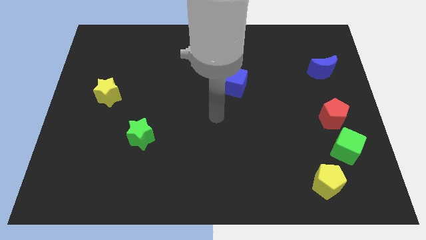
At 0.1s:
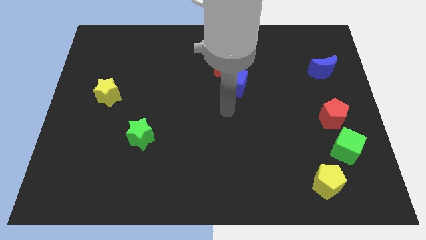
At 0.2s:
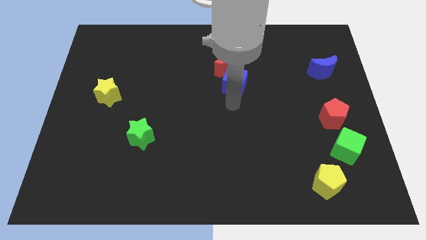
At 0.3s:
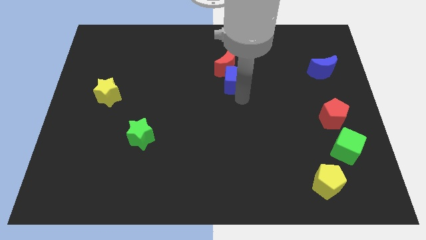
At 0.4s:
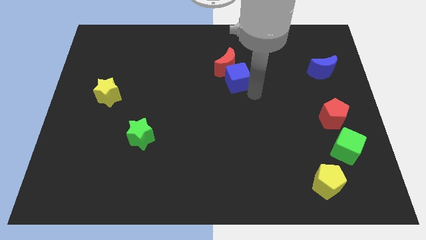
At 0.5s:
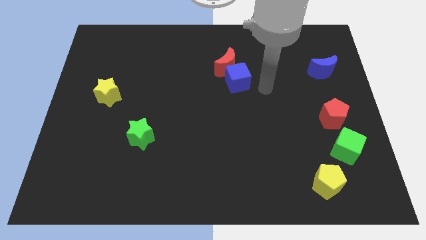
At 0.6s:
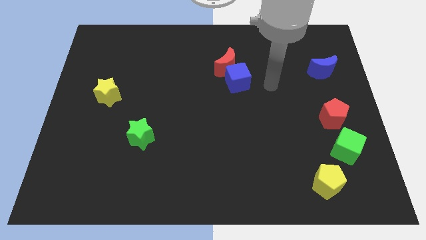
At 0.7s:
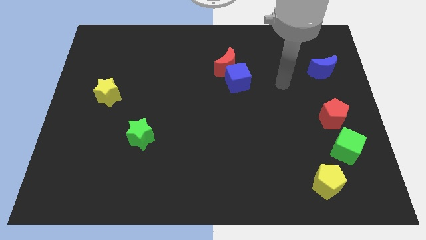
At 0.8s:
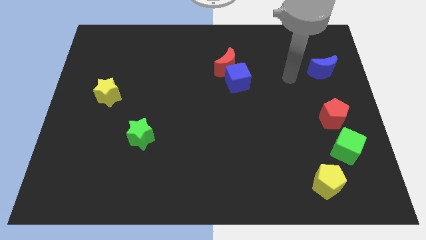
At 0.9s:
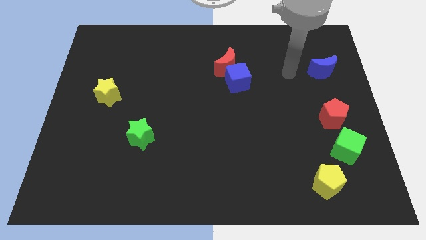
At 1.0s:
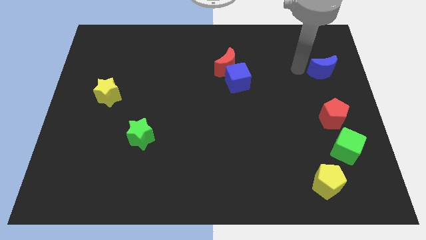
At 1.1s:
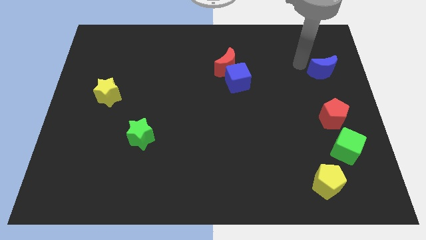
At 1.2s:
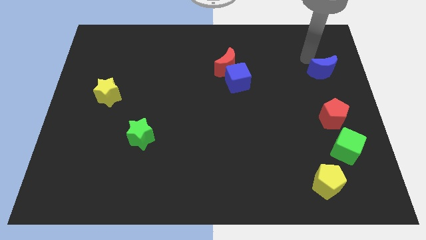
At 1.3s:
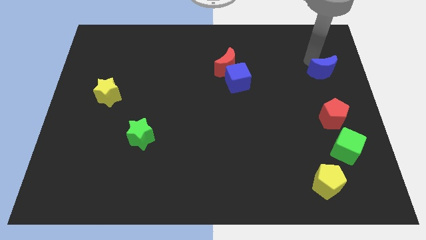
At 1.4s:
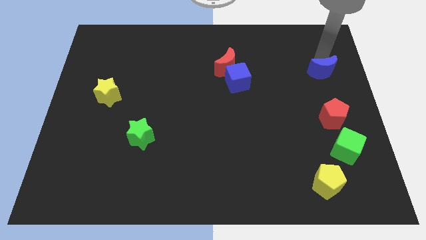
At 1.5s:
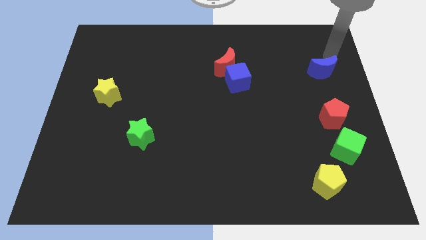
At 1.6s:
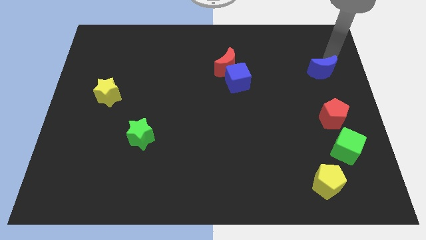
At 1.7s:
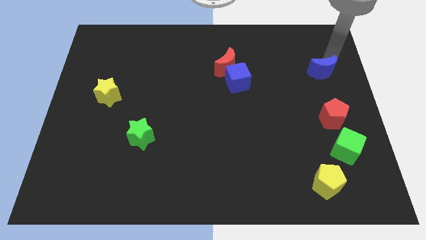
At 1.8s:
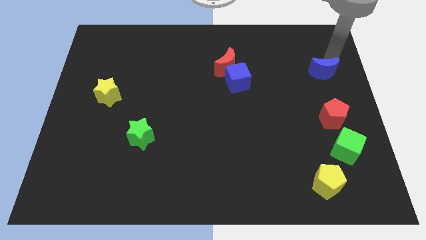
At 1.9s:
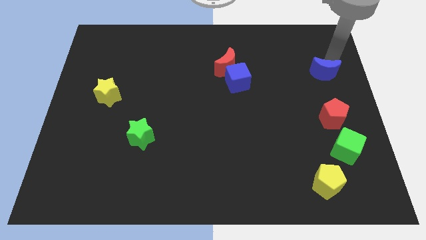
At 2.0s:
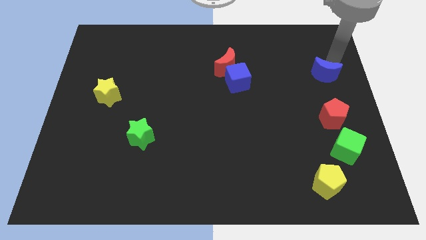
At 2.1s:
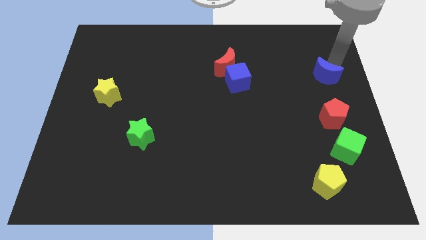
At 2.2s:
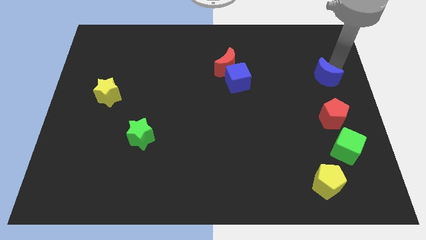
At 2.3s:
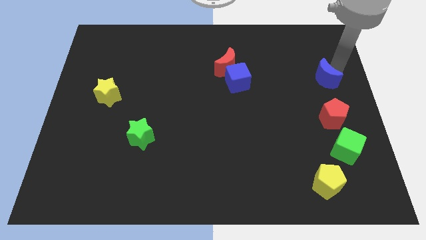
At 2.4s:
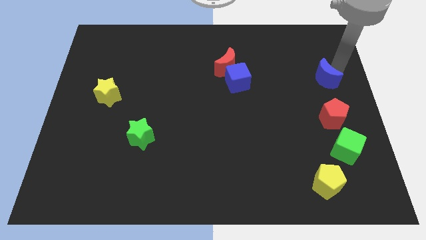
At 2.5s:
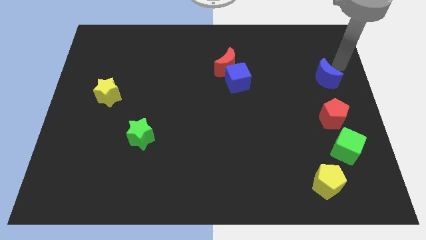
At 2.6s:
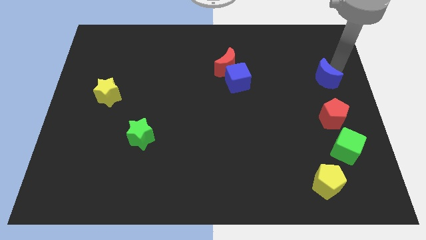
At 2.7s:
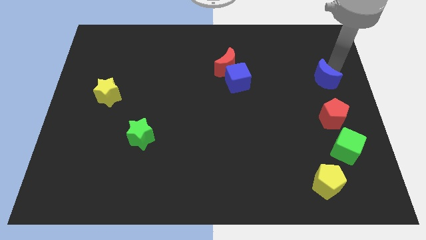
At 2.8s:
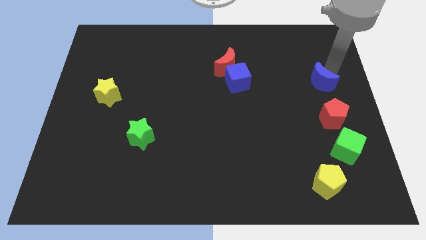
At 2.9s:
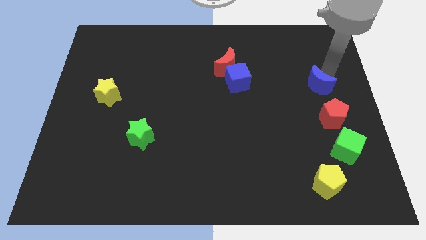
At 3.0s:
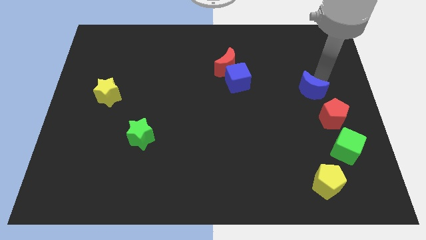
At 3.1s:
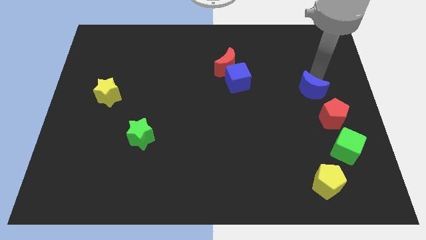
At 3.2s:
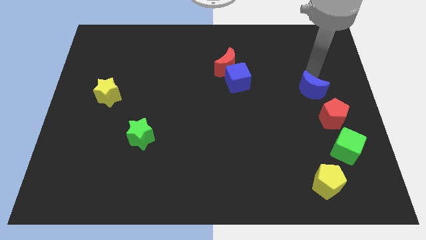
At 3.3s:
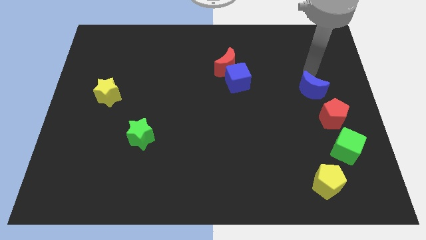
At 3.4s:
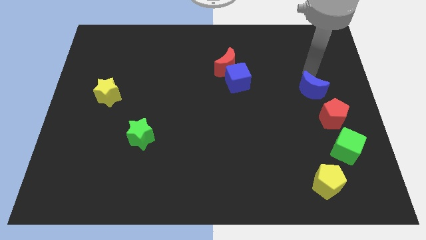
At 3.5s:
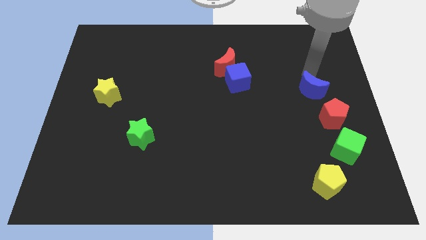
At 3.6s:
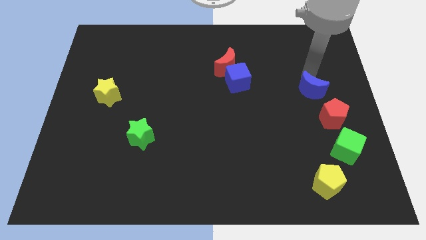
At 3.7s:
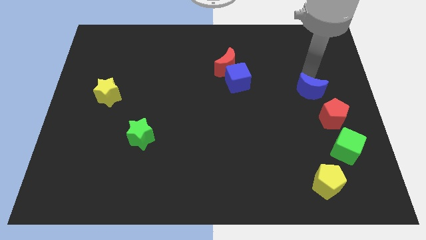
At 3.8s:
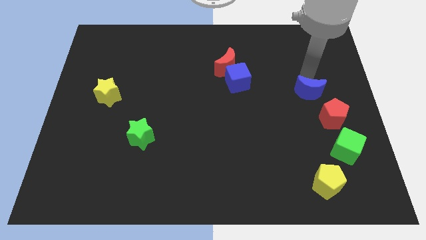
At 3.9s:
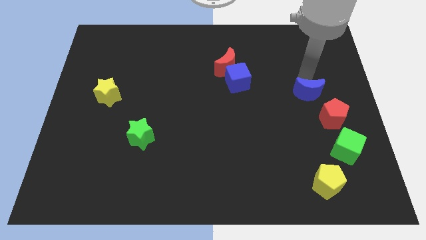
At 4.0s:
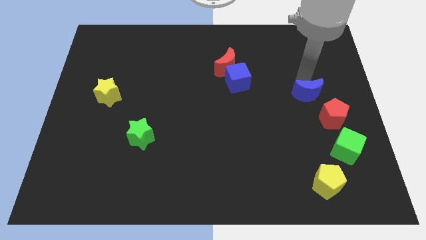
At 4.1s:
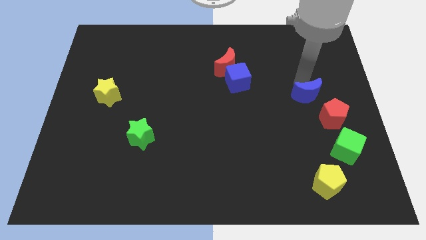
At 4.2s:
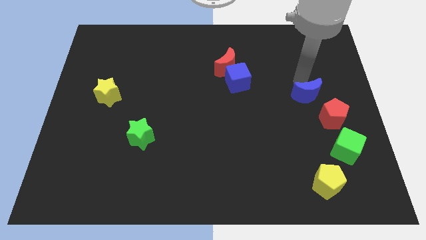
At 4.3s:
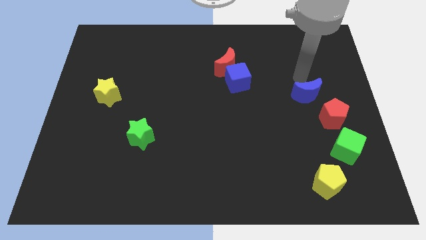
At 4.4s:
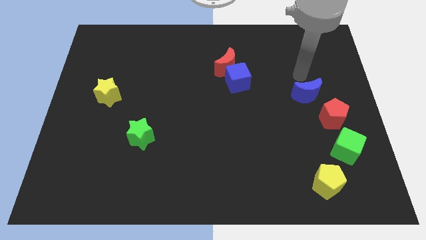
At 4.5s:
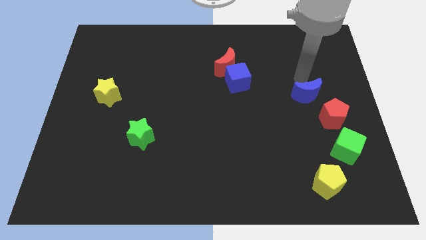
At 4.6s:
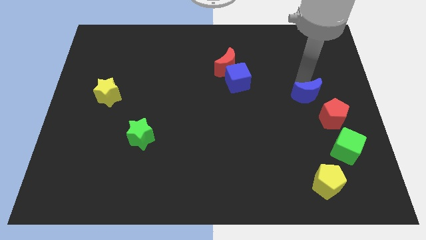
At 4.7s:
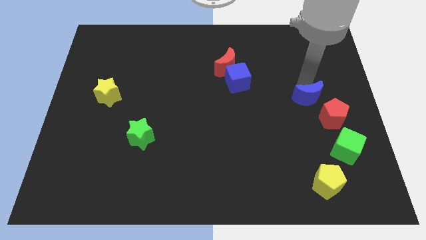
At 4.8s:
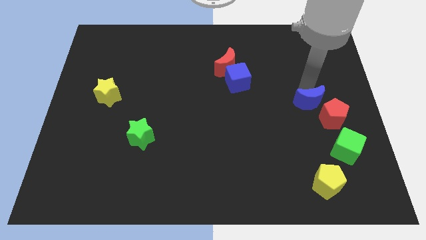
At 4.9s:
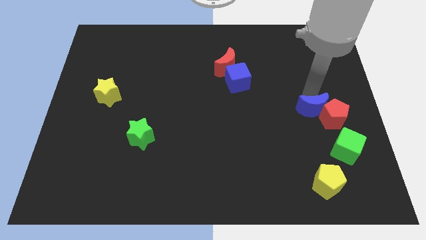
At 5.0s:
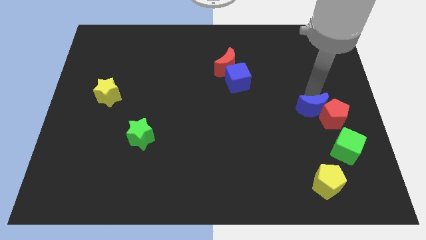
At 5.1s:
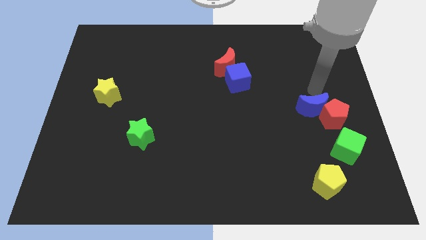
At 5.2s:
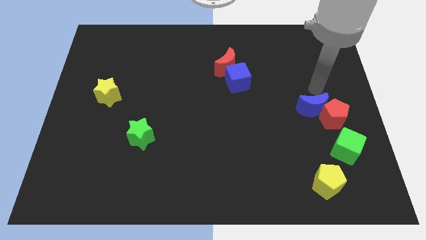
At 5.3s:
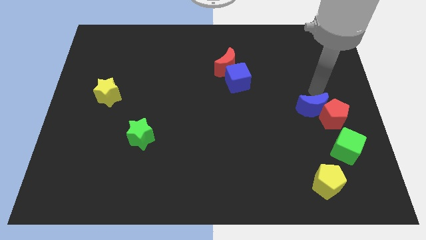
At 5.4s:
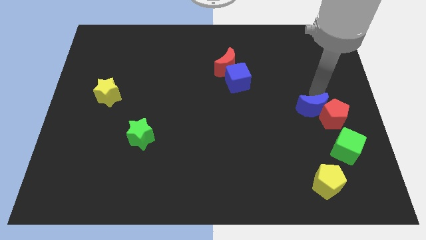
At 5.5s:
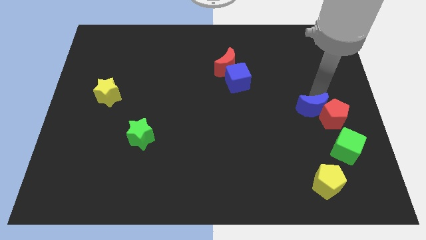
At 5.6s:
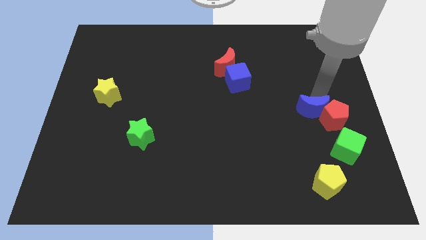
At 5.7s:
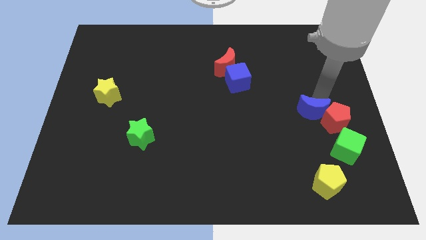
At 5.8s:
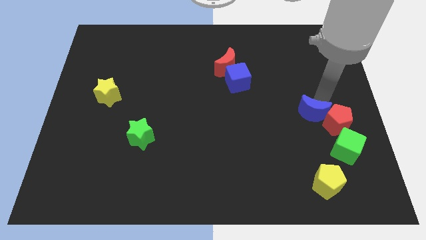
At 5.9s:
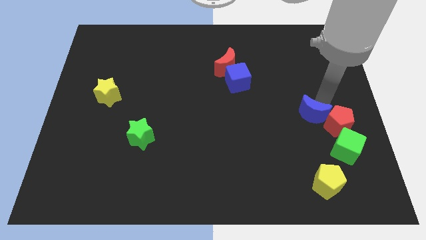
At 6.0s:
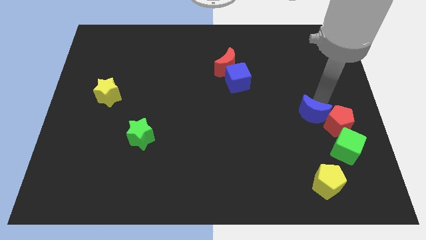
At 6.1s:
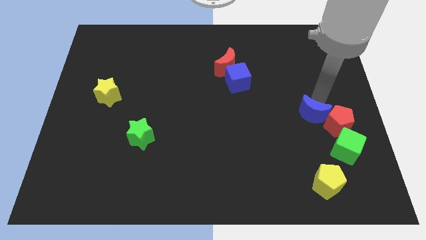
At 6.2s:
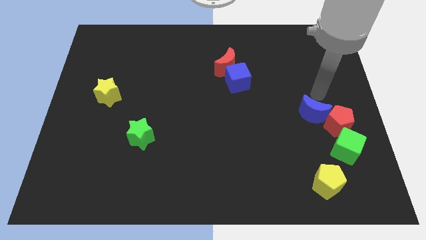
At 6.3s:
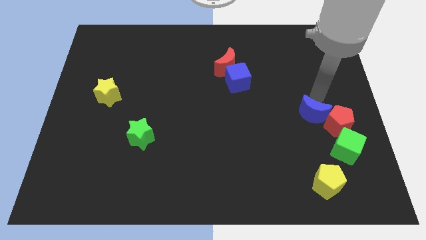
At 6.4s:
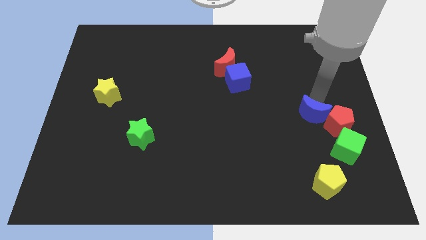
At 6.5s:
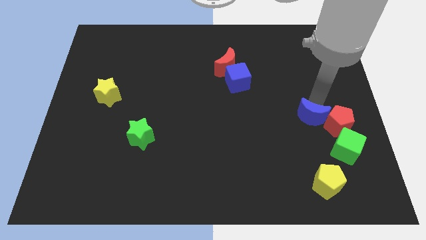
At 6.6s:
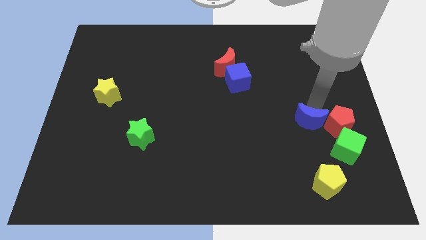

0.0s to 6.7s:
move the blue moon above the yellow pentagon
